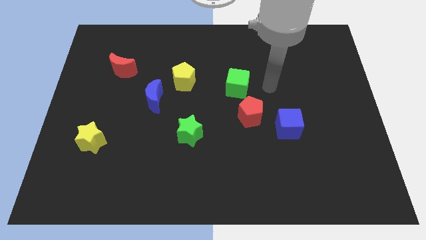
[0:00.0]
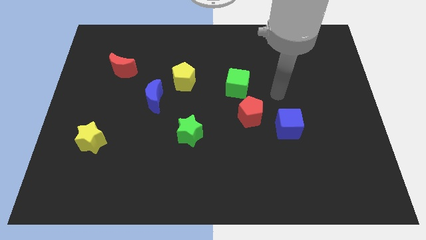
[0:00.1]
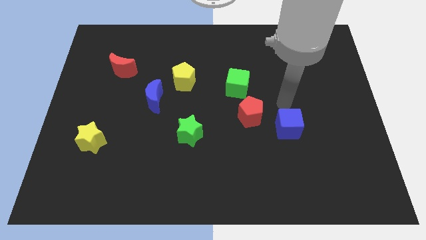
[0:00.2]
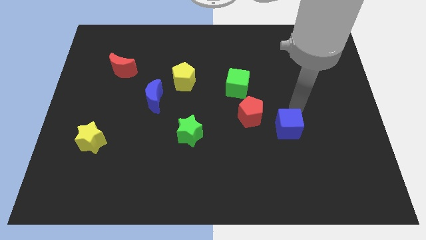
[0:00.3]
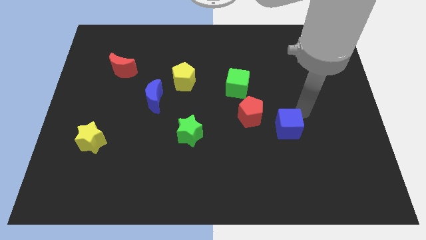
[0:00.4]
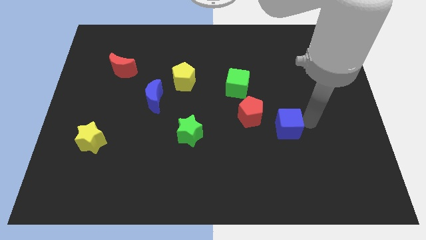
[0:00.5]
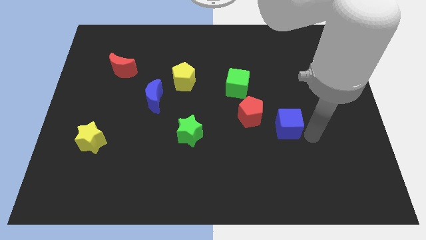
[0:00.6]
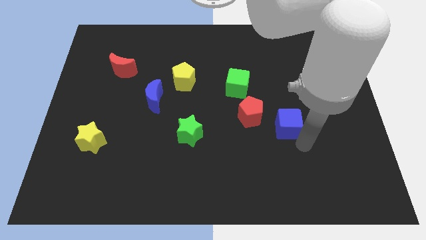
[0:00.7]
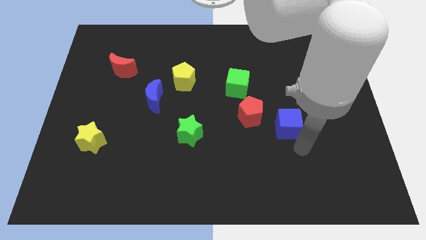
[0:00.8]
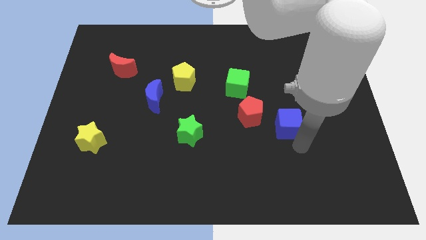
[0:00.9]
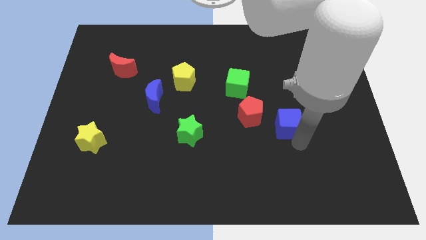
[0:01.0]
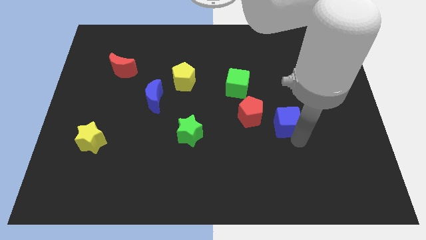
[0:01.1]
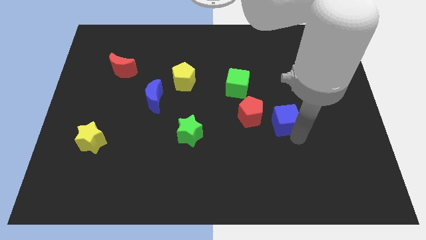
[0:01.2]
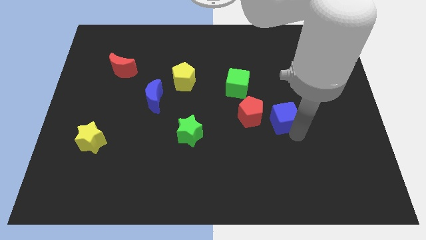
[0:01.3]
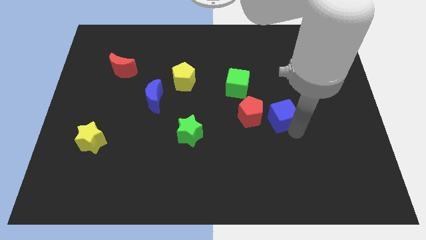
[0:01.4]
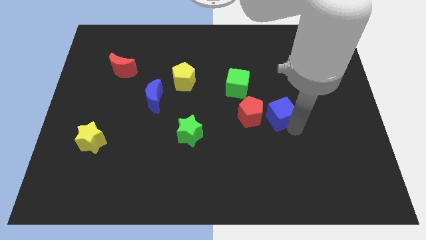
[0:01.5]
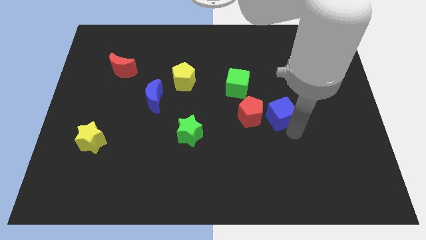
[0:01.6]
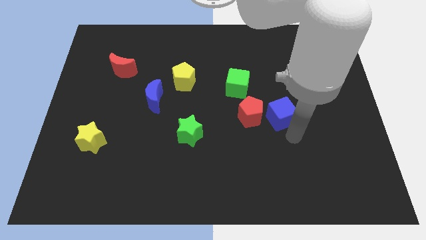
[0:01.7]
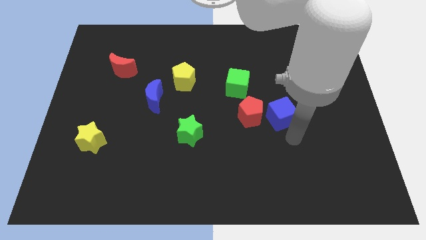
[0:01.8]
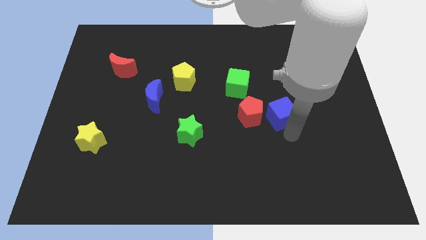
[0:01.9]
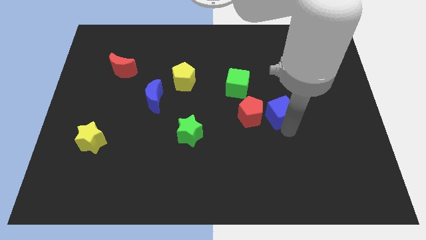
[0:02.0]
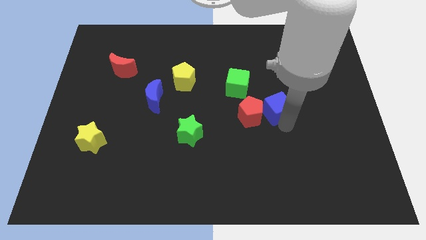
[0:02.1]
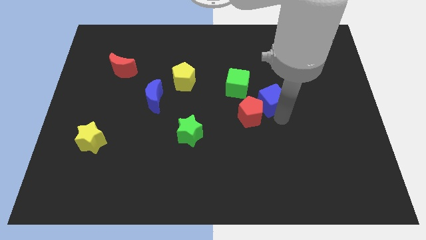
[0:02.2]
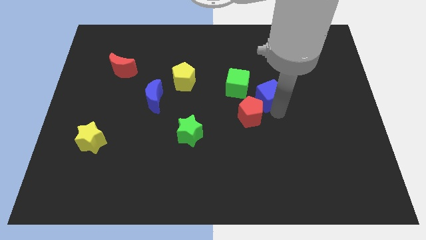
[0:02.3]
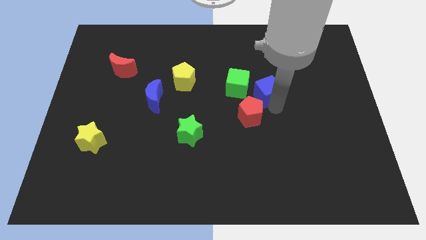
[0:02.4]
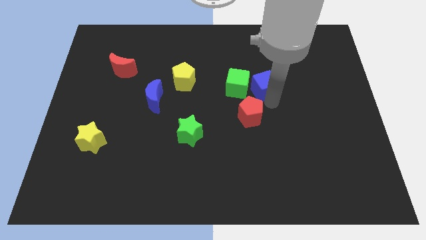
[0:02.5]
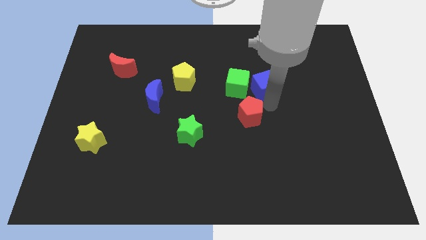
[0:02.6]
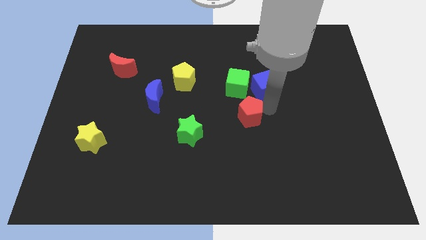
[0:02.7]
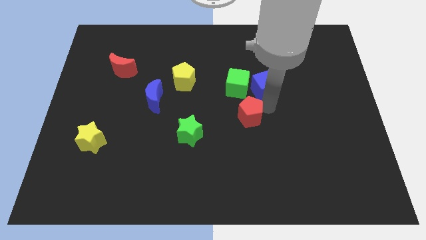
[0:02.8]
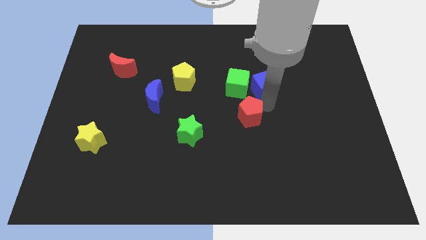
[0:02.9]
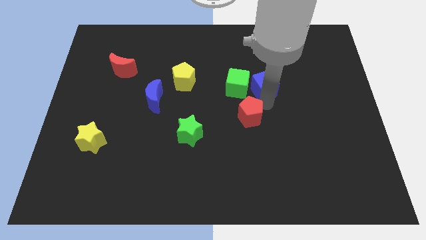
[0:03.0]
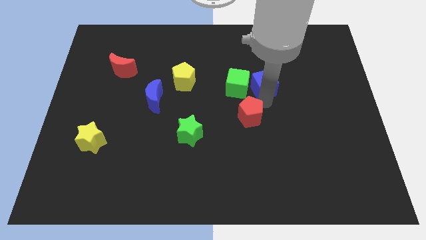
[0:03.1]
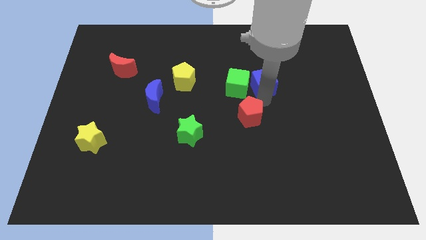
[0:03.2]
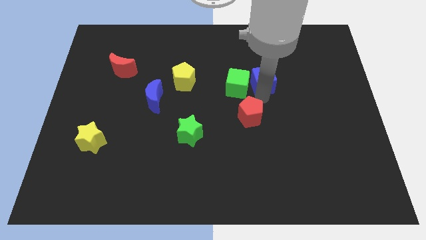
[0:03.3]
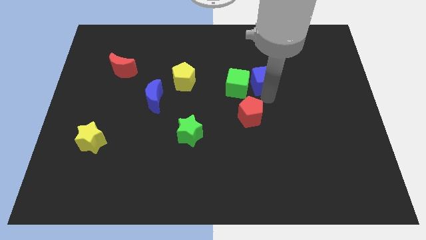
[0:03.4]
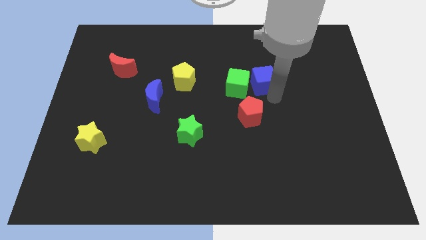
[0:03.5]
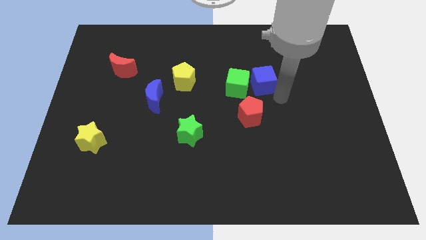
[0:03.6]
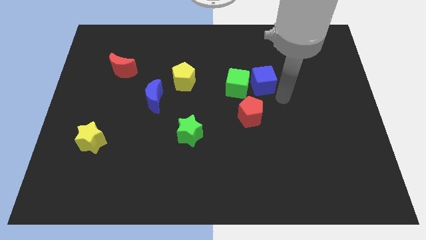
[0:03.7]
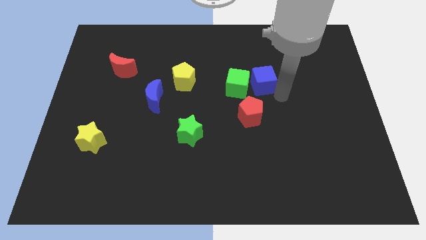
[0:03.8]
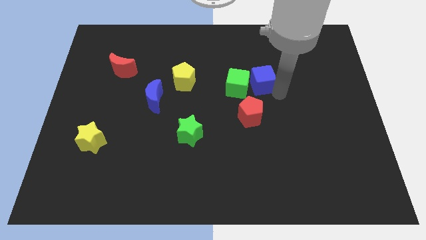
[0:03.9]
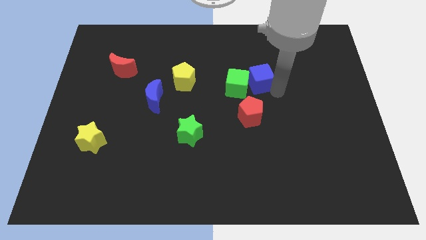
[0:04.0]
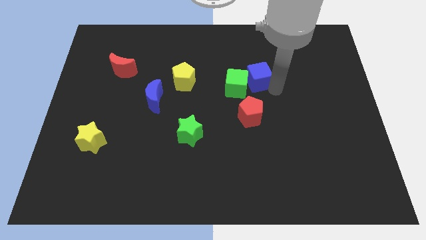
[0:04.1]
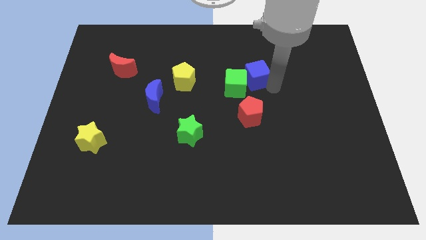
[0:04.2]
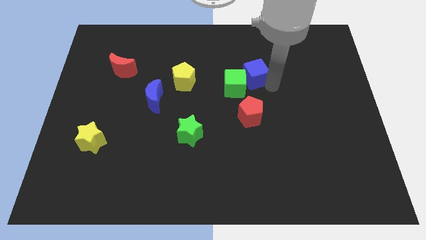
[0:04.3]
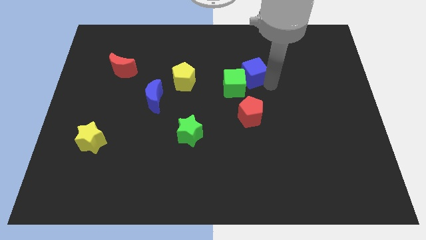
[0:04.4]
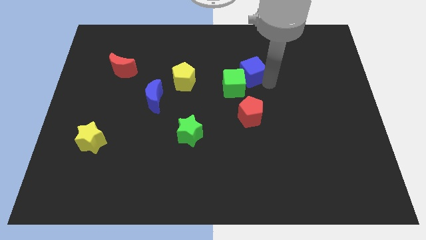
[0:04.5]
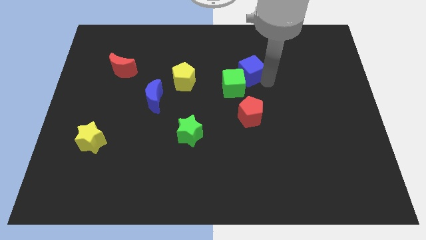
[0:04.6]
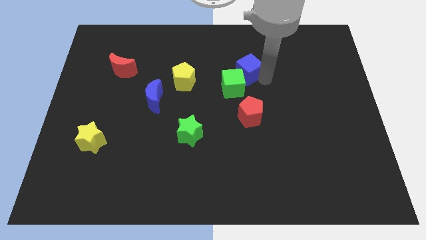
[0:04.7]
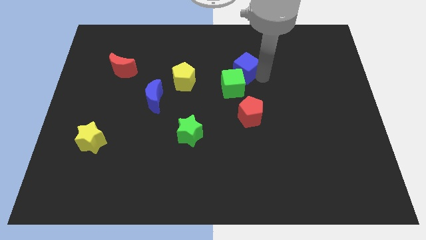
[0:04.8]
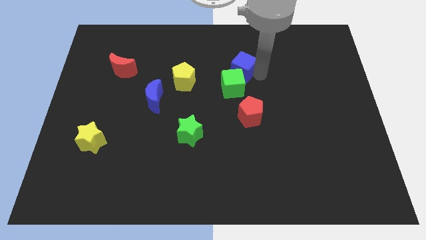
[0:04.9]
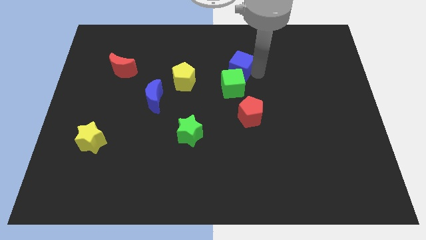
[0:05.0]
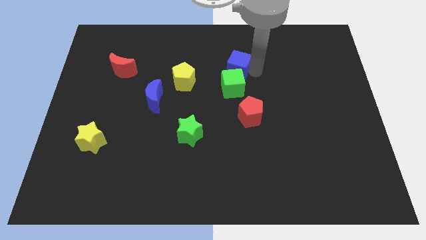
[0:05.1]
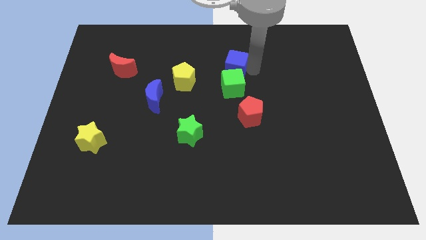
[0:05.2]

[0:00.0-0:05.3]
push the blue cube up and to the left diagonally

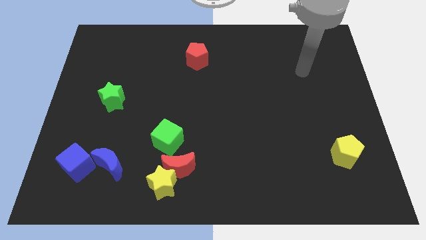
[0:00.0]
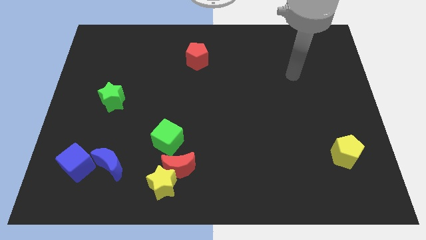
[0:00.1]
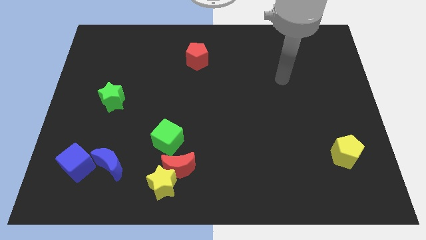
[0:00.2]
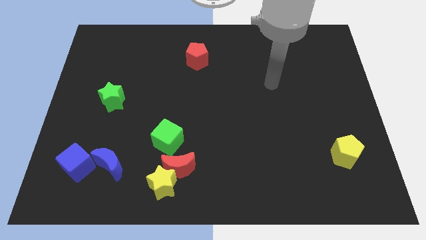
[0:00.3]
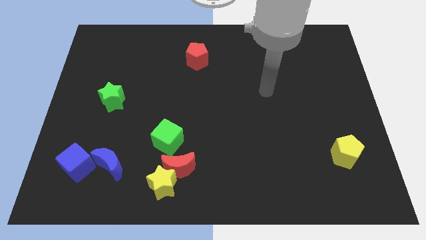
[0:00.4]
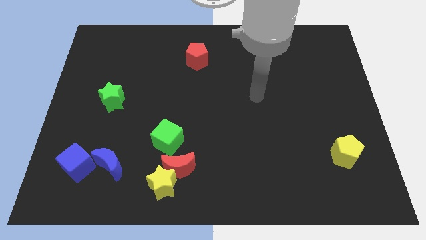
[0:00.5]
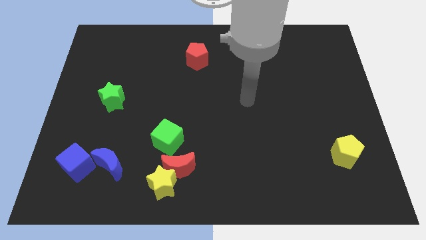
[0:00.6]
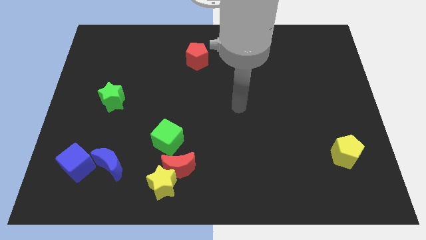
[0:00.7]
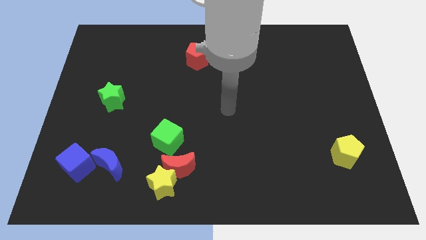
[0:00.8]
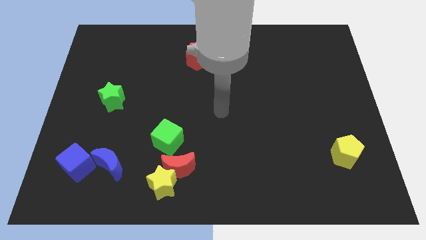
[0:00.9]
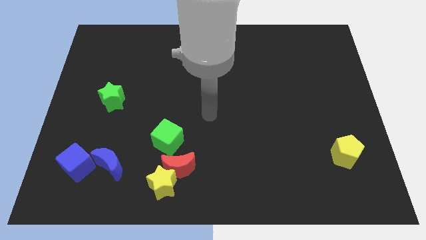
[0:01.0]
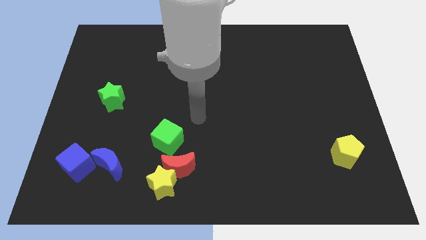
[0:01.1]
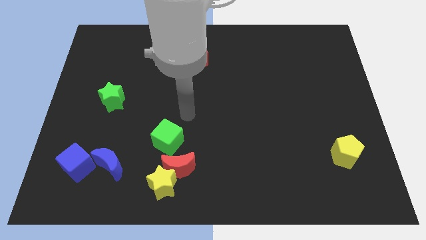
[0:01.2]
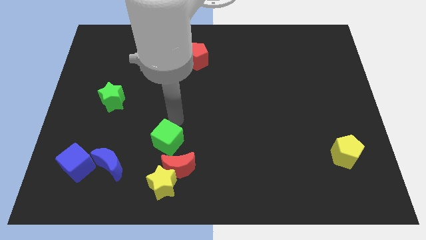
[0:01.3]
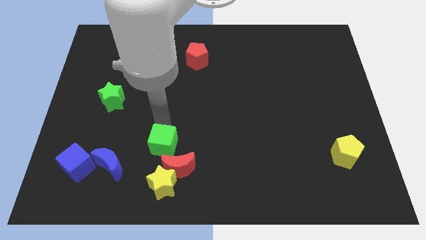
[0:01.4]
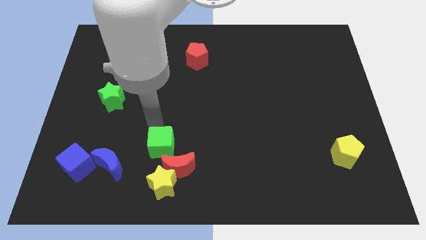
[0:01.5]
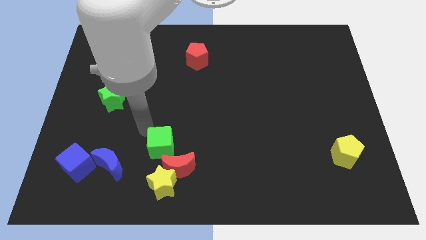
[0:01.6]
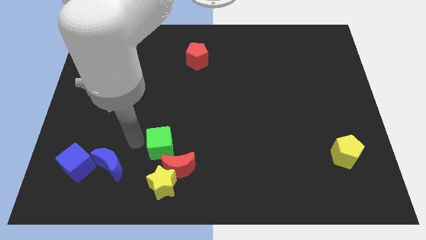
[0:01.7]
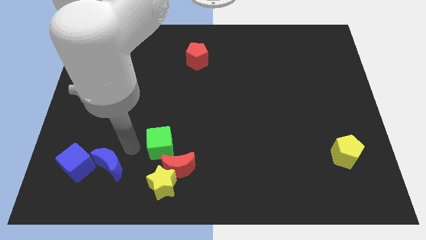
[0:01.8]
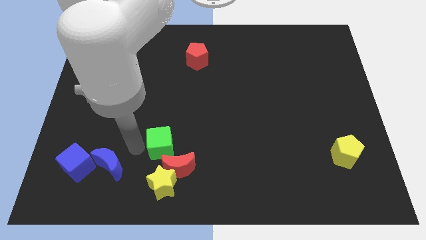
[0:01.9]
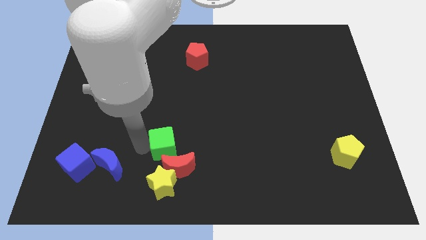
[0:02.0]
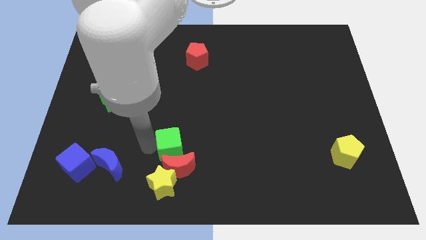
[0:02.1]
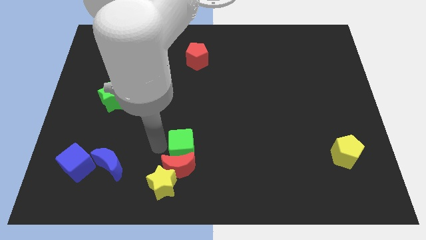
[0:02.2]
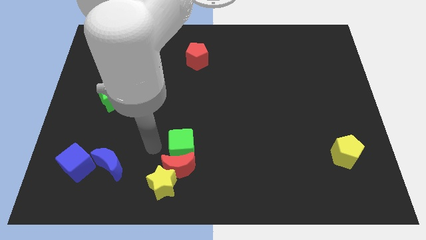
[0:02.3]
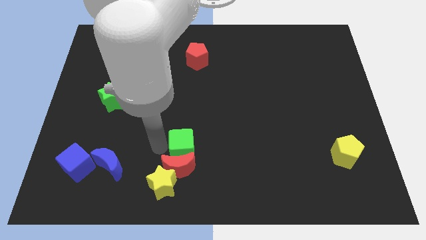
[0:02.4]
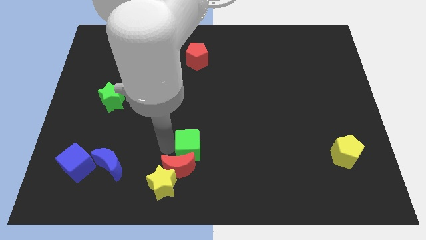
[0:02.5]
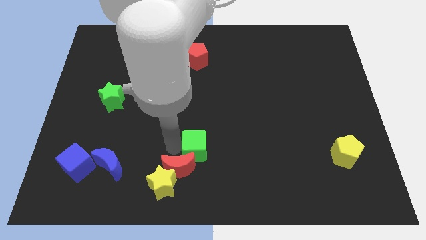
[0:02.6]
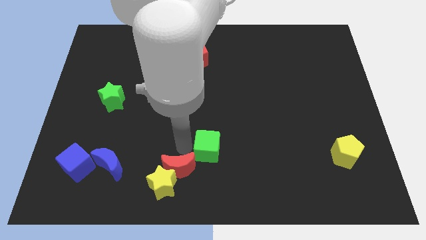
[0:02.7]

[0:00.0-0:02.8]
move the green cube to the right a little bit
